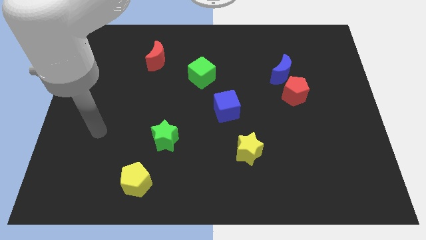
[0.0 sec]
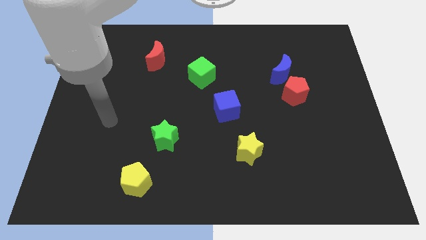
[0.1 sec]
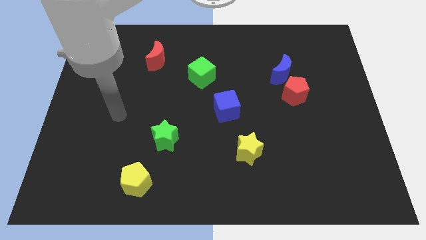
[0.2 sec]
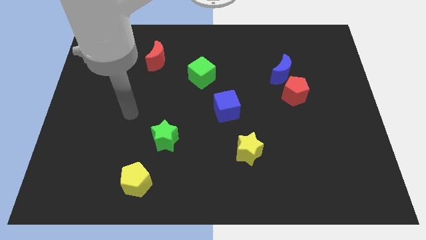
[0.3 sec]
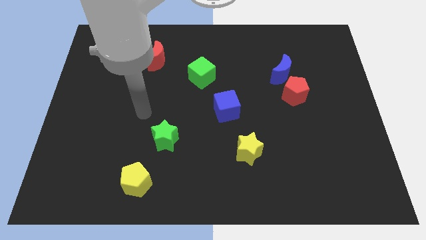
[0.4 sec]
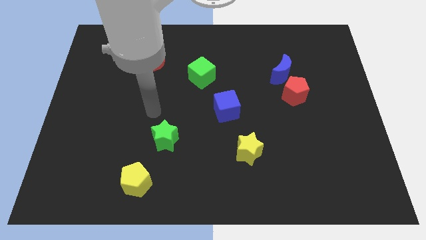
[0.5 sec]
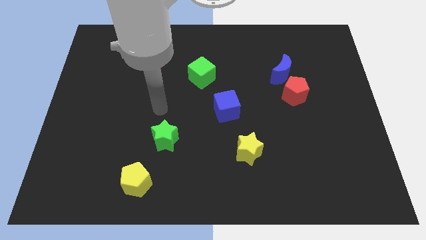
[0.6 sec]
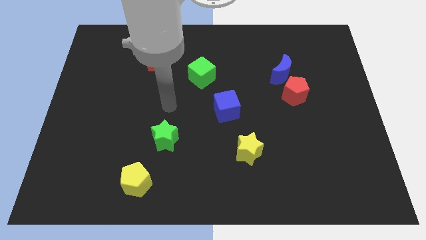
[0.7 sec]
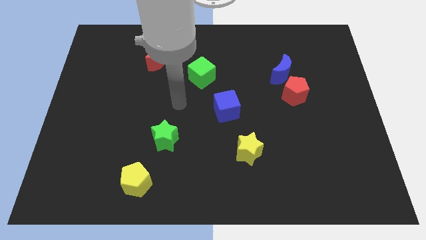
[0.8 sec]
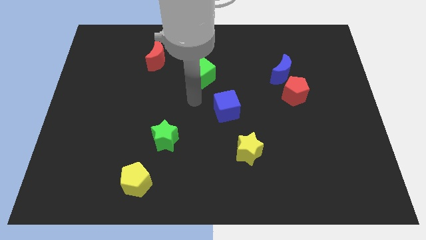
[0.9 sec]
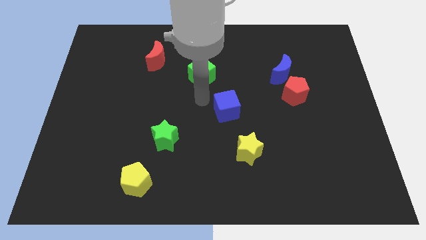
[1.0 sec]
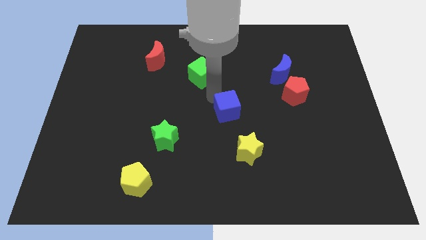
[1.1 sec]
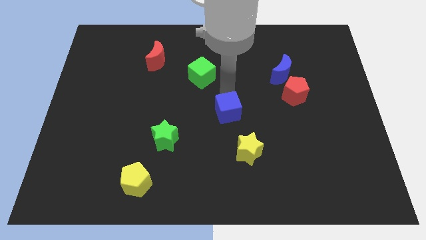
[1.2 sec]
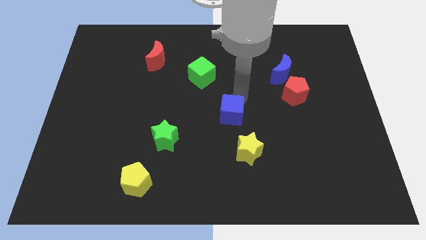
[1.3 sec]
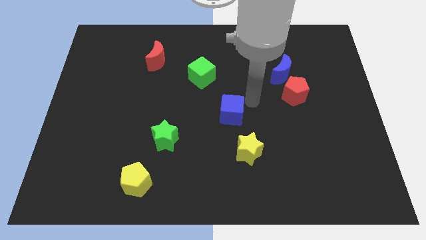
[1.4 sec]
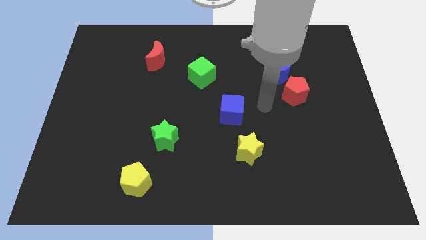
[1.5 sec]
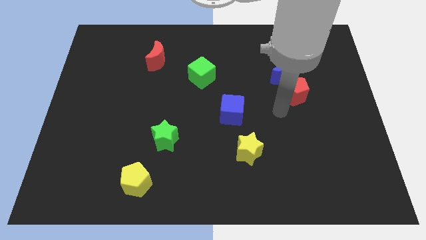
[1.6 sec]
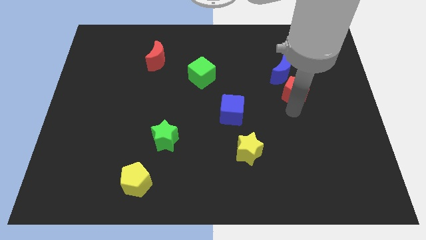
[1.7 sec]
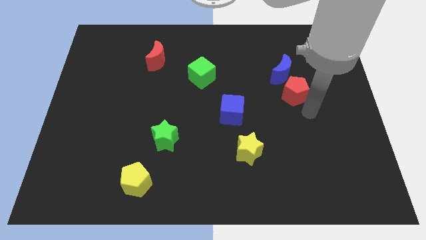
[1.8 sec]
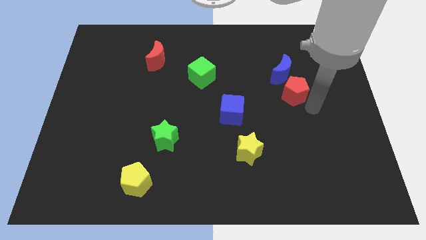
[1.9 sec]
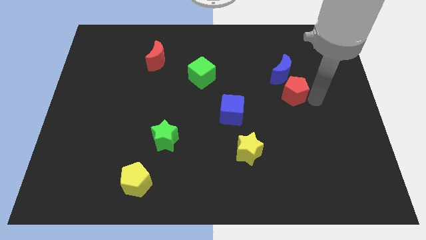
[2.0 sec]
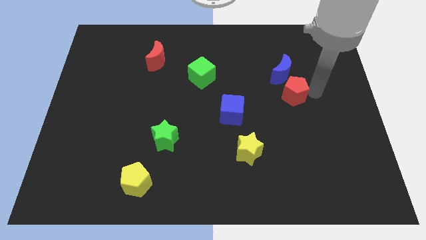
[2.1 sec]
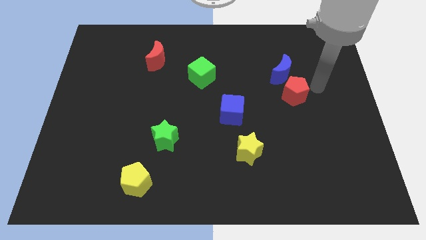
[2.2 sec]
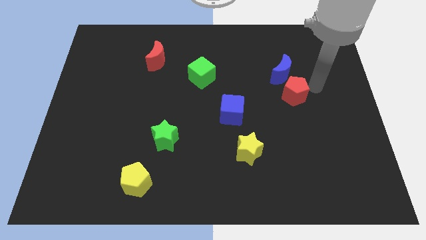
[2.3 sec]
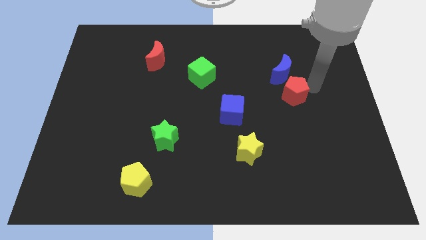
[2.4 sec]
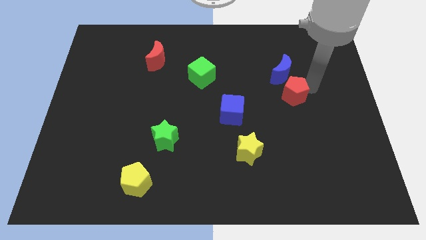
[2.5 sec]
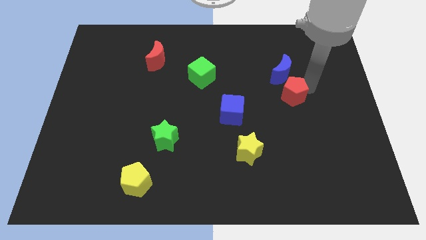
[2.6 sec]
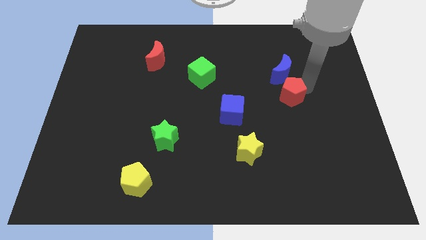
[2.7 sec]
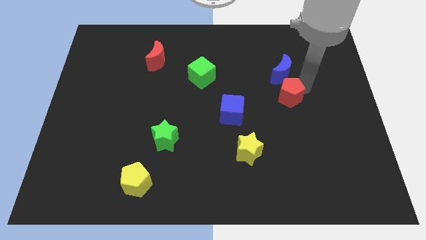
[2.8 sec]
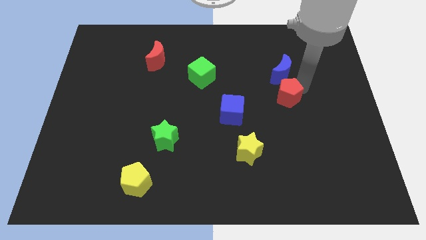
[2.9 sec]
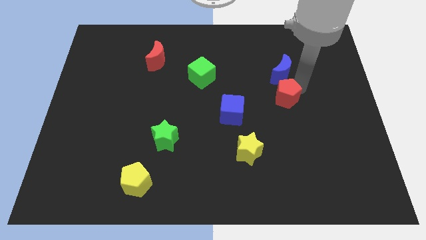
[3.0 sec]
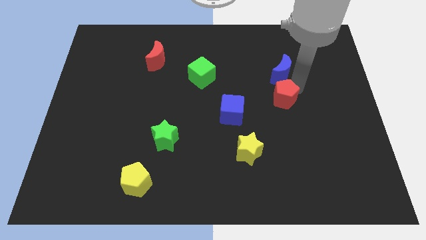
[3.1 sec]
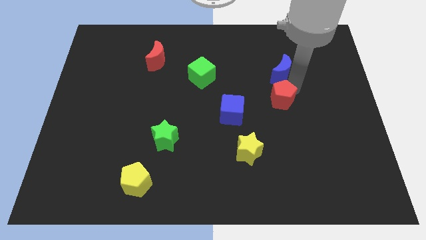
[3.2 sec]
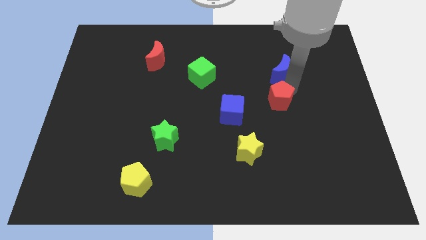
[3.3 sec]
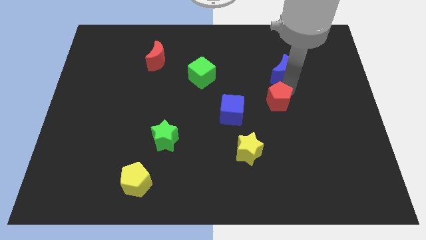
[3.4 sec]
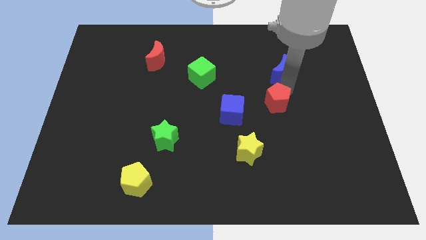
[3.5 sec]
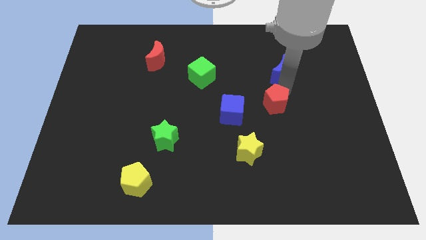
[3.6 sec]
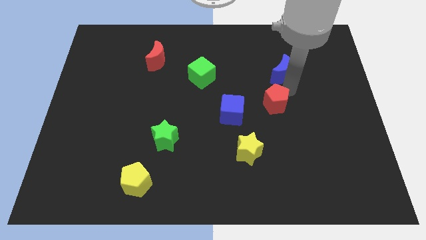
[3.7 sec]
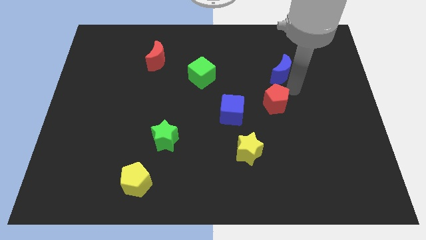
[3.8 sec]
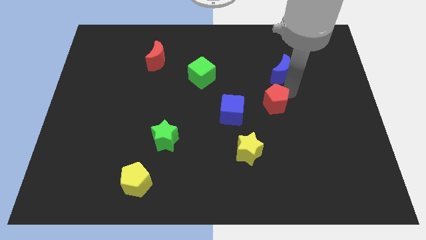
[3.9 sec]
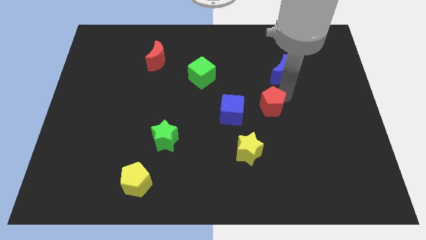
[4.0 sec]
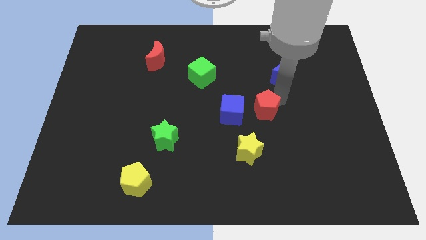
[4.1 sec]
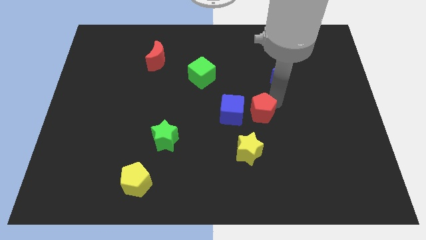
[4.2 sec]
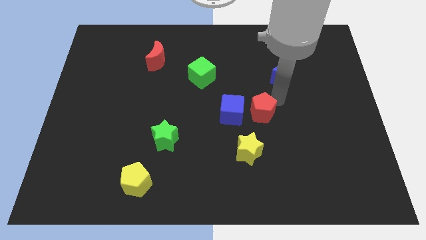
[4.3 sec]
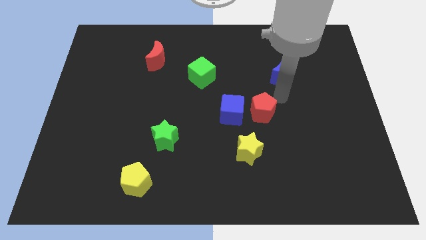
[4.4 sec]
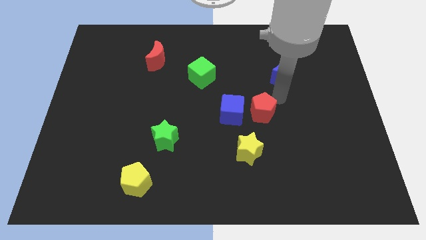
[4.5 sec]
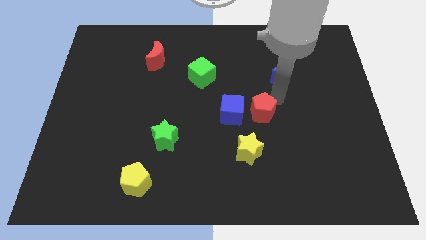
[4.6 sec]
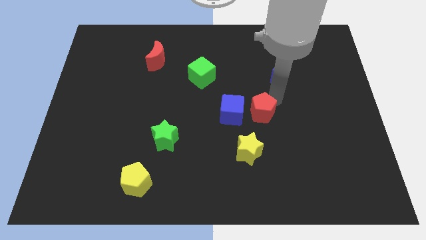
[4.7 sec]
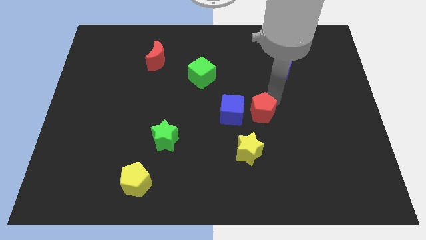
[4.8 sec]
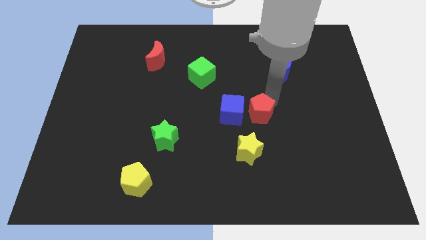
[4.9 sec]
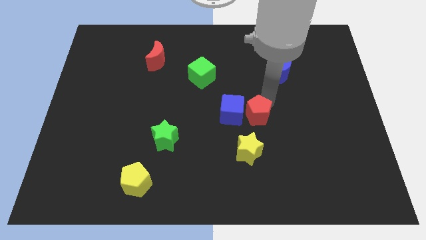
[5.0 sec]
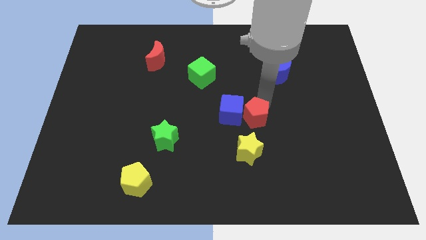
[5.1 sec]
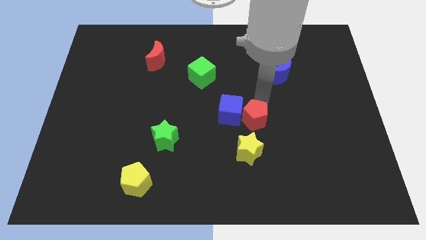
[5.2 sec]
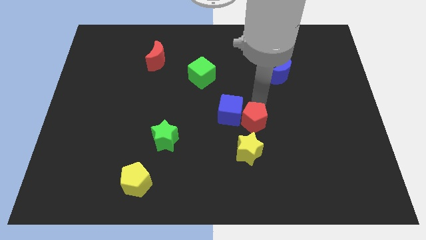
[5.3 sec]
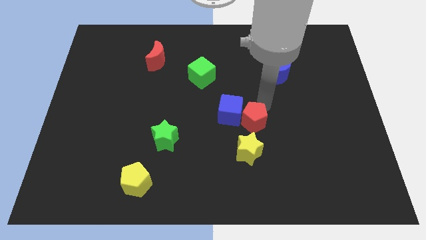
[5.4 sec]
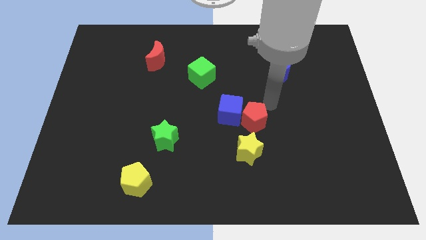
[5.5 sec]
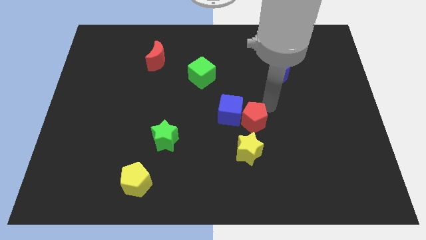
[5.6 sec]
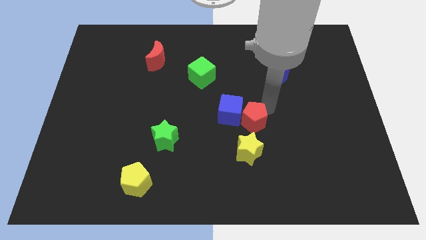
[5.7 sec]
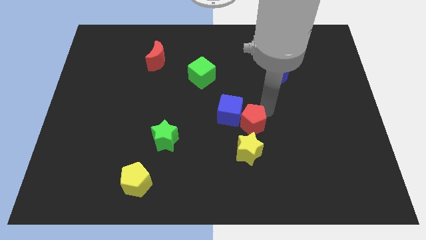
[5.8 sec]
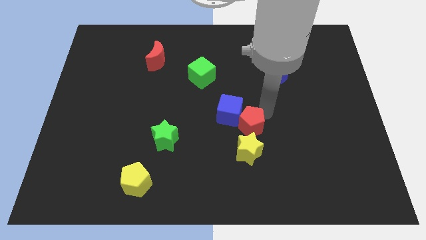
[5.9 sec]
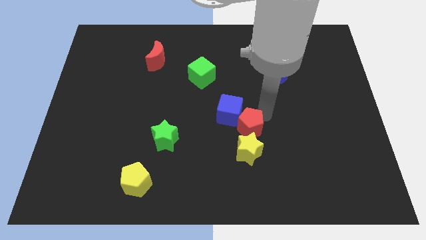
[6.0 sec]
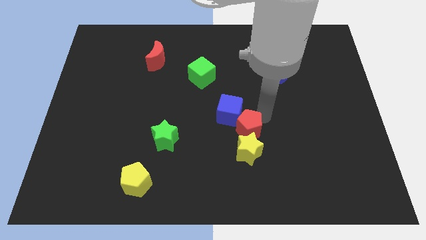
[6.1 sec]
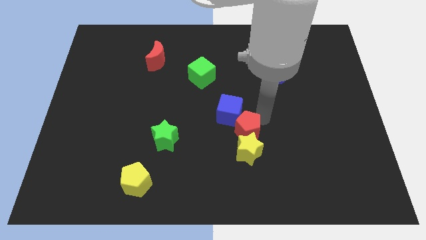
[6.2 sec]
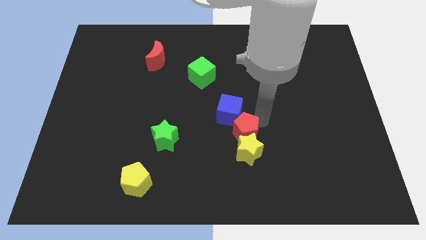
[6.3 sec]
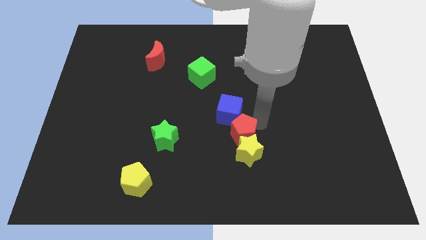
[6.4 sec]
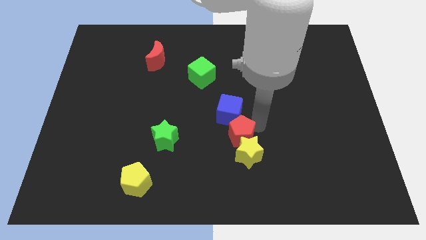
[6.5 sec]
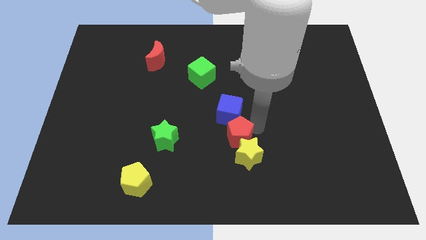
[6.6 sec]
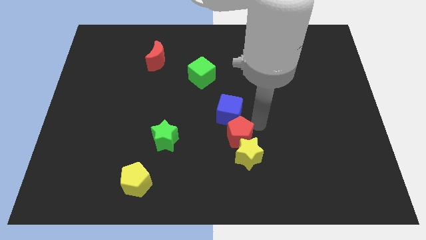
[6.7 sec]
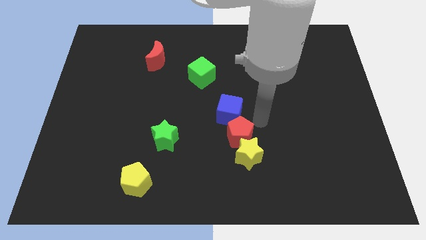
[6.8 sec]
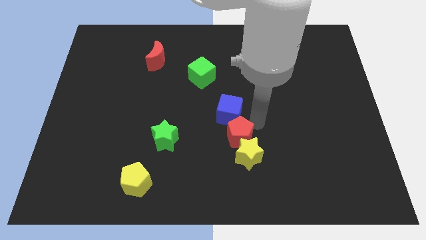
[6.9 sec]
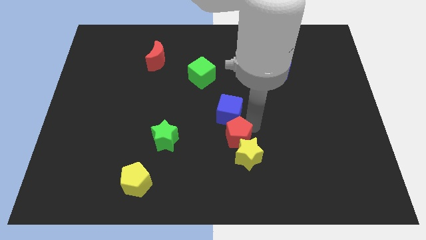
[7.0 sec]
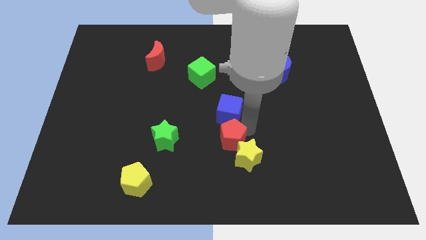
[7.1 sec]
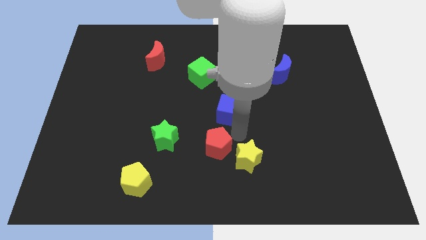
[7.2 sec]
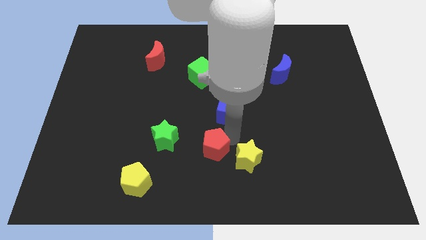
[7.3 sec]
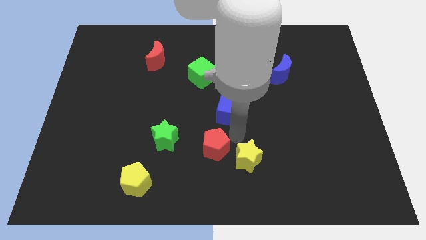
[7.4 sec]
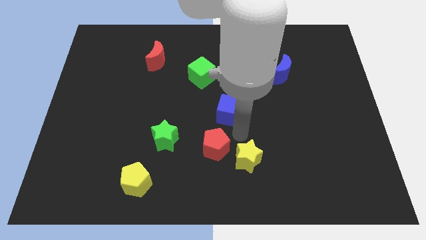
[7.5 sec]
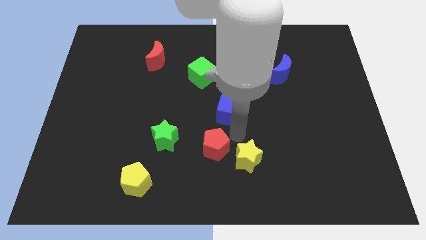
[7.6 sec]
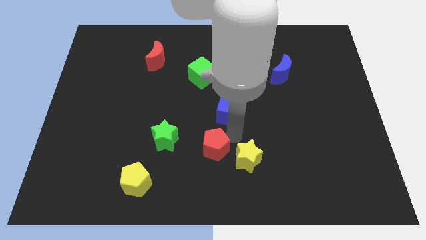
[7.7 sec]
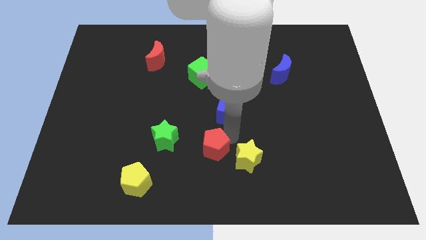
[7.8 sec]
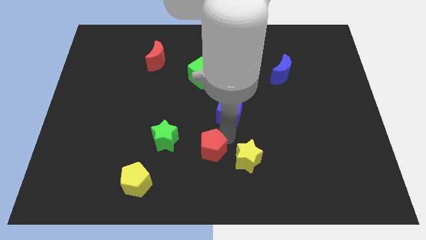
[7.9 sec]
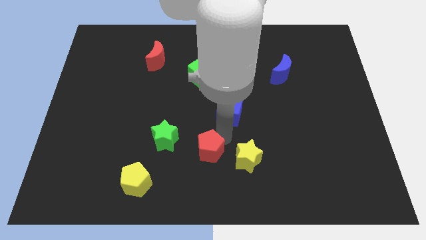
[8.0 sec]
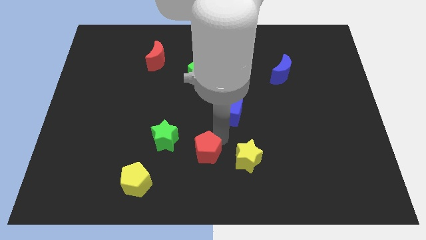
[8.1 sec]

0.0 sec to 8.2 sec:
move the red pentagon to the bottom right of the green star
